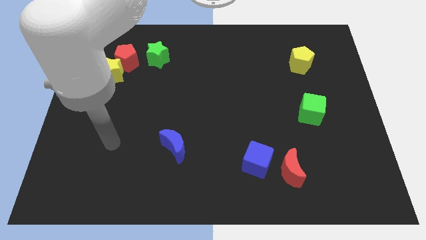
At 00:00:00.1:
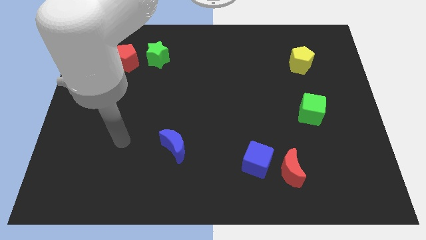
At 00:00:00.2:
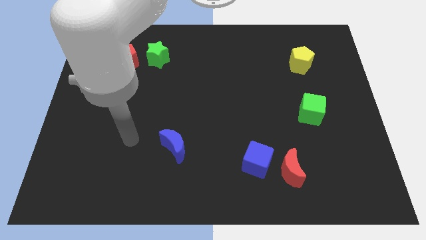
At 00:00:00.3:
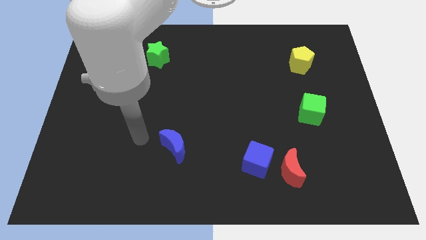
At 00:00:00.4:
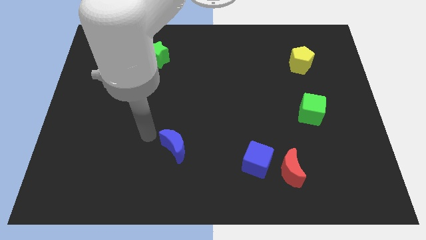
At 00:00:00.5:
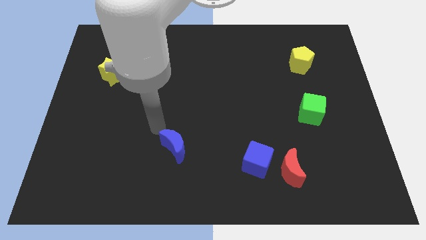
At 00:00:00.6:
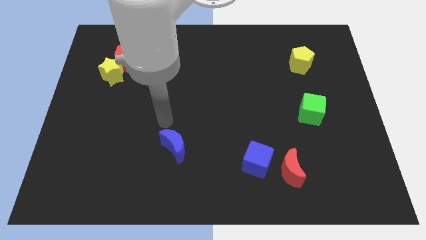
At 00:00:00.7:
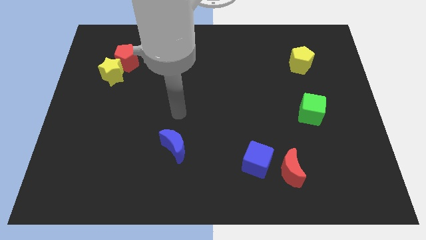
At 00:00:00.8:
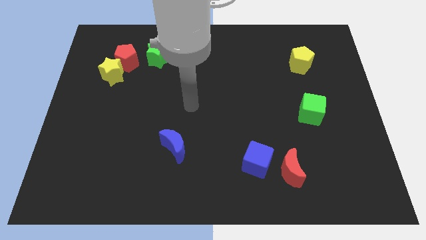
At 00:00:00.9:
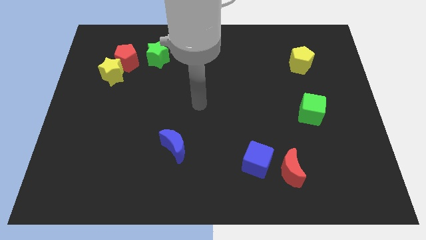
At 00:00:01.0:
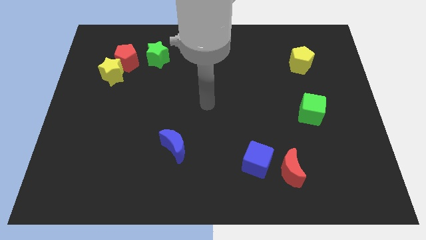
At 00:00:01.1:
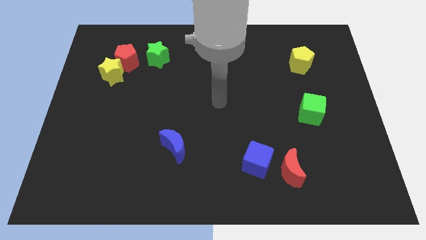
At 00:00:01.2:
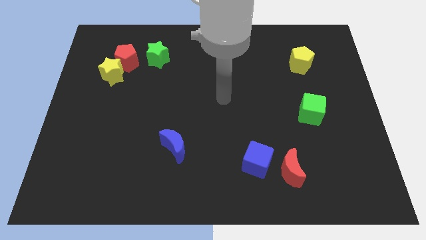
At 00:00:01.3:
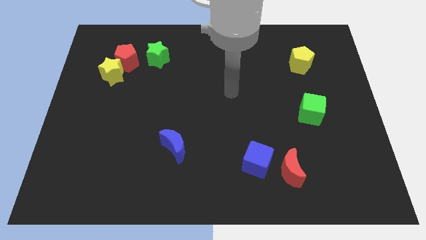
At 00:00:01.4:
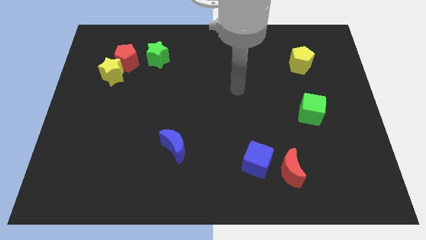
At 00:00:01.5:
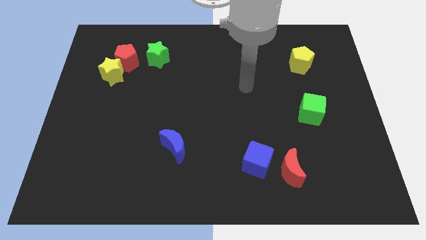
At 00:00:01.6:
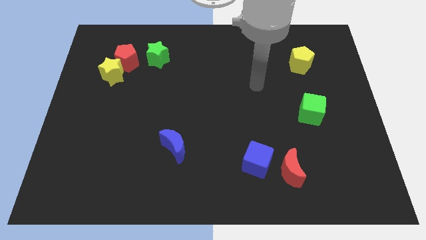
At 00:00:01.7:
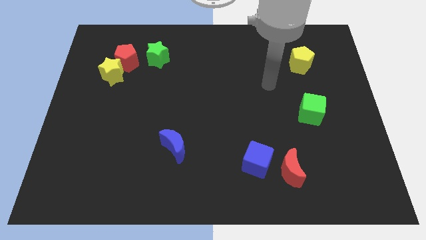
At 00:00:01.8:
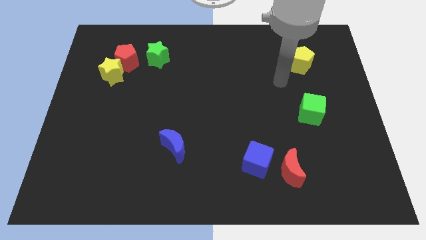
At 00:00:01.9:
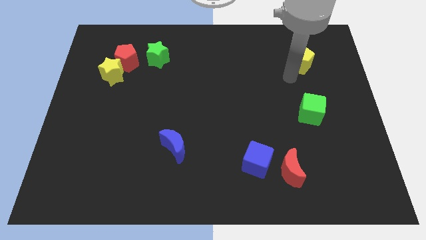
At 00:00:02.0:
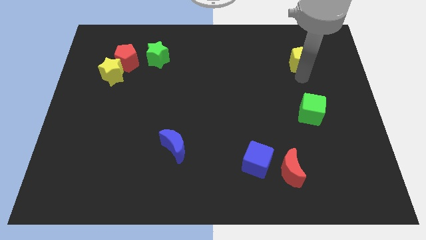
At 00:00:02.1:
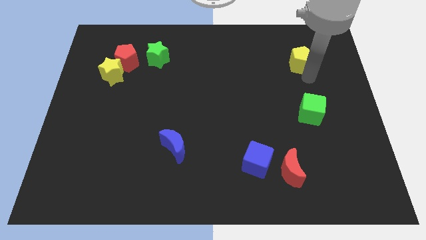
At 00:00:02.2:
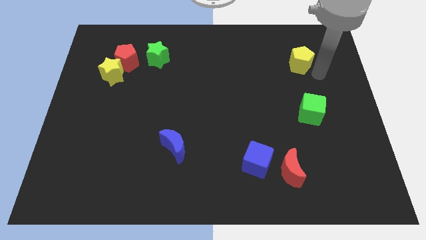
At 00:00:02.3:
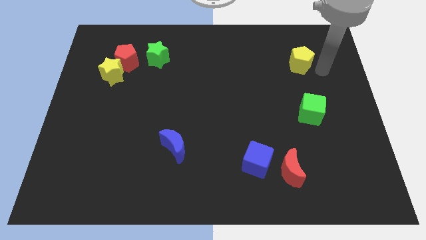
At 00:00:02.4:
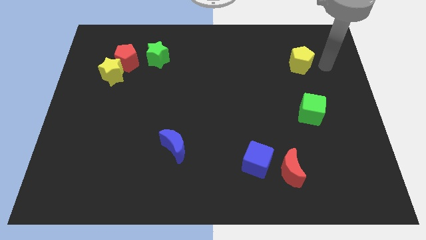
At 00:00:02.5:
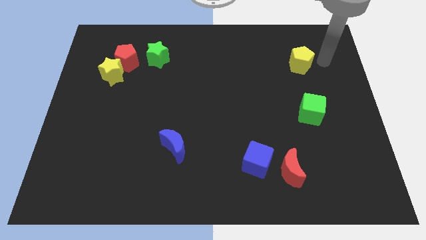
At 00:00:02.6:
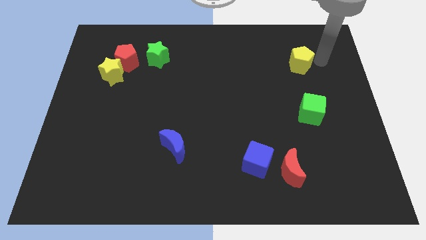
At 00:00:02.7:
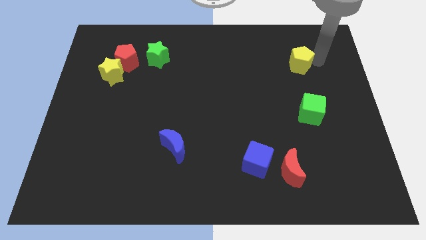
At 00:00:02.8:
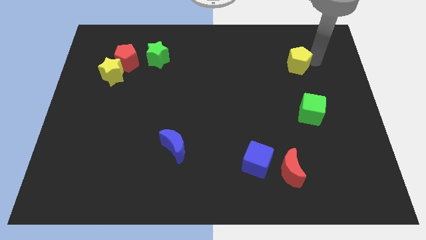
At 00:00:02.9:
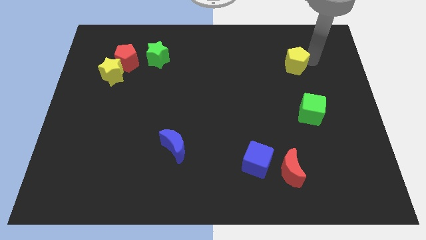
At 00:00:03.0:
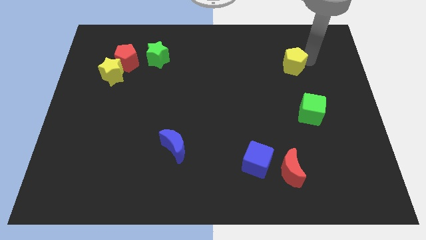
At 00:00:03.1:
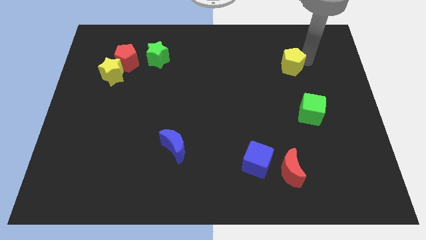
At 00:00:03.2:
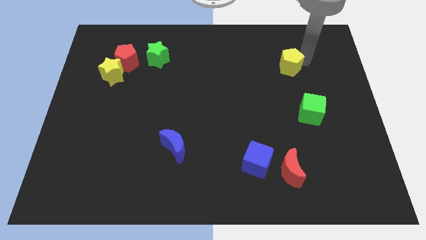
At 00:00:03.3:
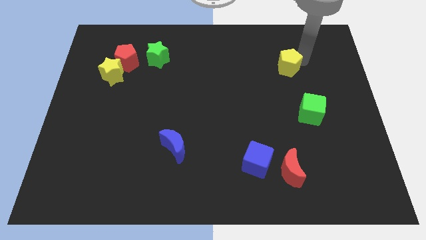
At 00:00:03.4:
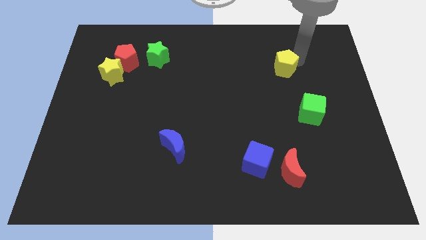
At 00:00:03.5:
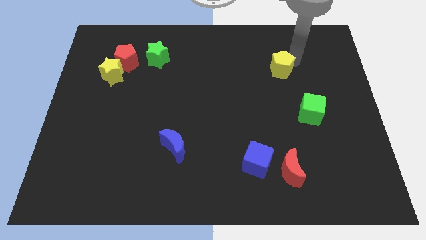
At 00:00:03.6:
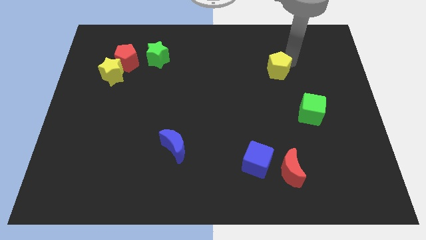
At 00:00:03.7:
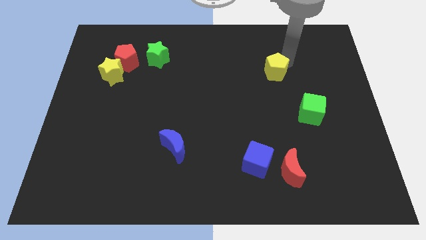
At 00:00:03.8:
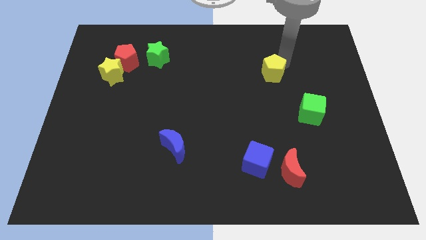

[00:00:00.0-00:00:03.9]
push the yellow pentagon a little bit to the left

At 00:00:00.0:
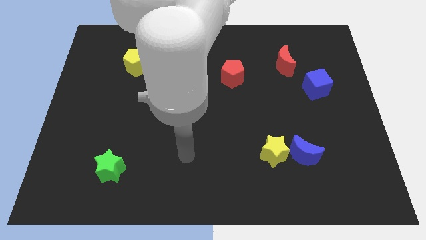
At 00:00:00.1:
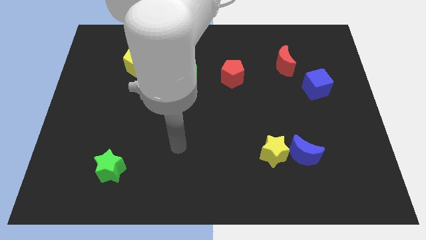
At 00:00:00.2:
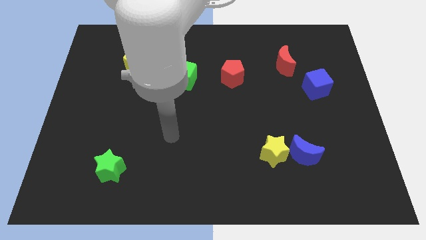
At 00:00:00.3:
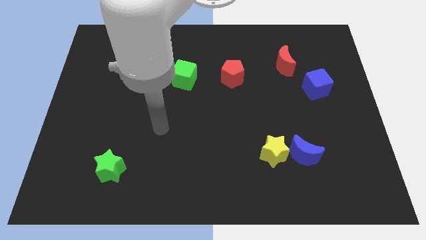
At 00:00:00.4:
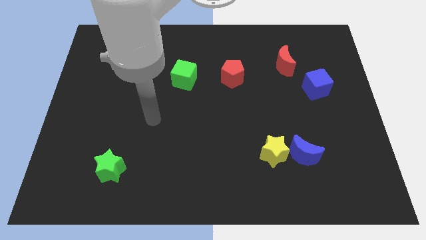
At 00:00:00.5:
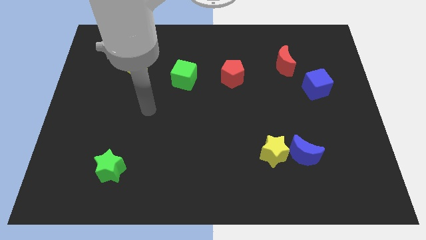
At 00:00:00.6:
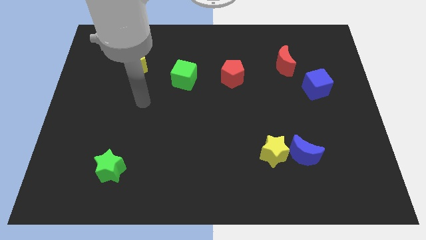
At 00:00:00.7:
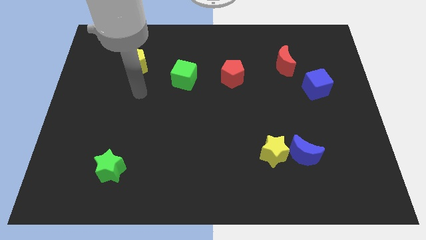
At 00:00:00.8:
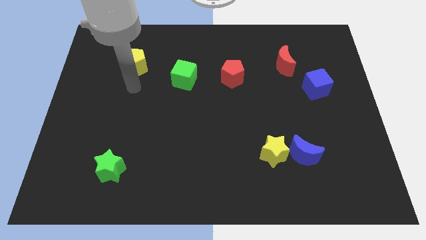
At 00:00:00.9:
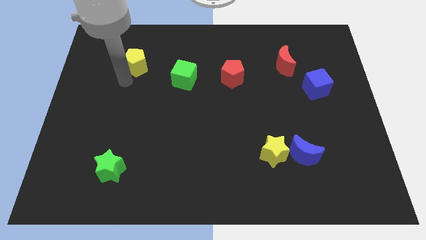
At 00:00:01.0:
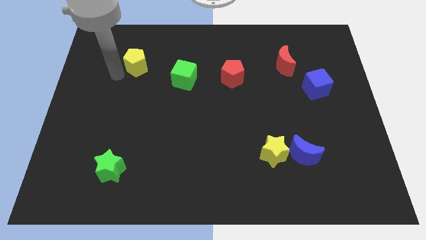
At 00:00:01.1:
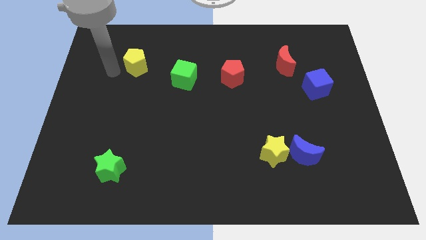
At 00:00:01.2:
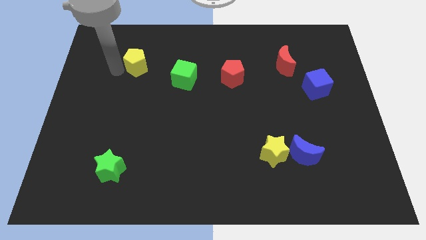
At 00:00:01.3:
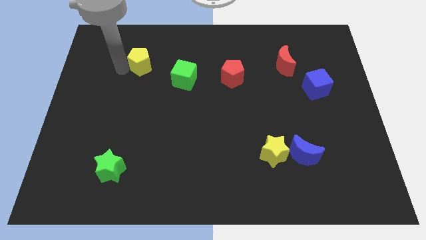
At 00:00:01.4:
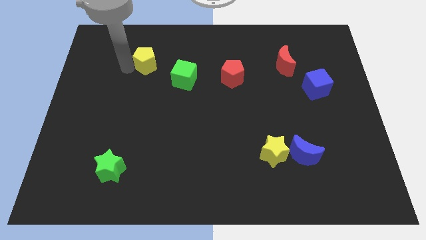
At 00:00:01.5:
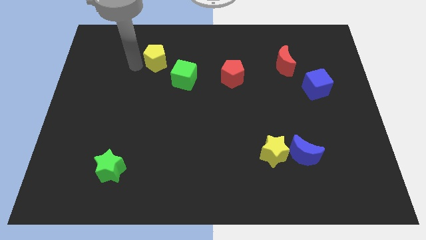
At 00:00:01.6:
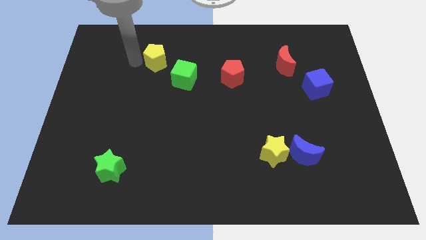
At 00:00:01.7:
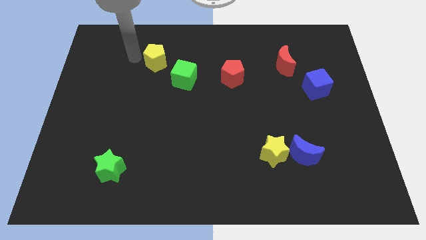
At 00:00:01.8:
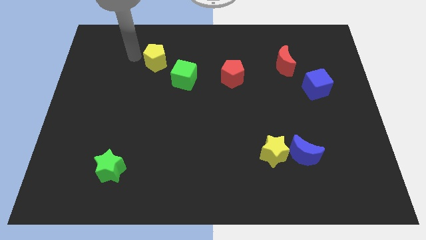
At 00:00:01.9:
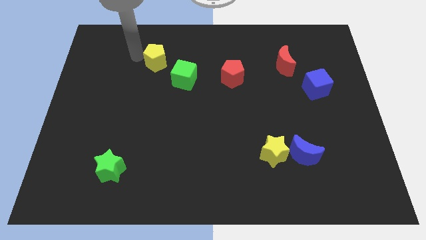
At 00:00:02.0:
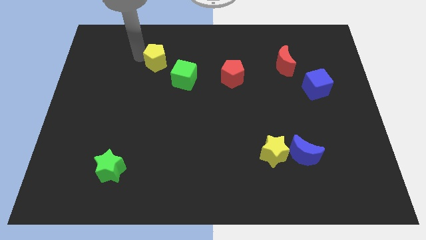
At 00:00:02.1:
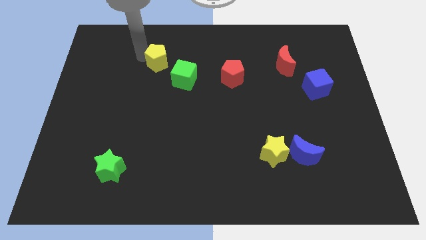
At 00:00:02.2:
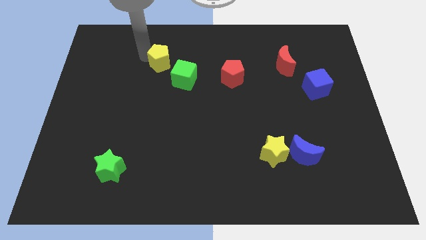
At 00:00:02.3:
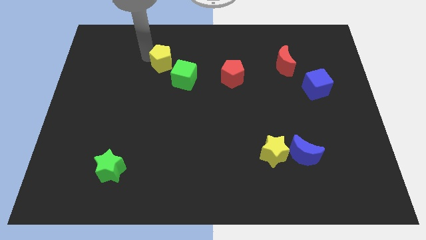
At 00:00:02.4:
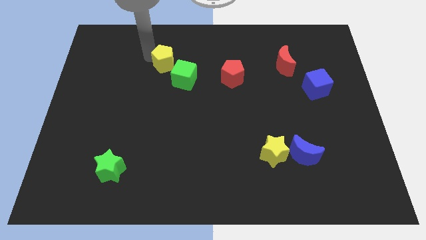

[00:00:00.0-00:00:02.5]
move the yellow pentagon somewhat right

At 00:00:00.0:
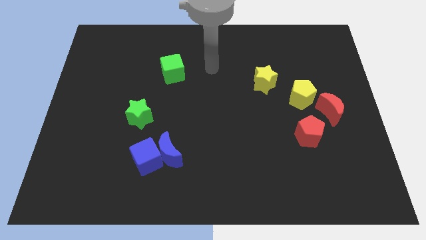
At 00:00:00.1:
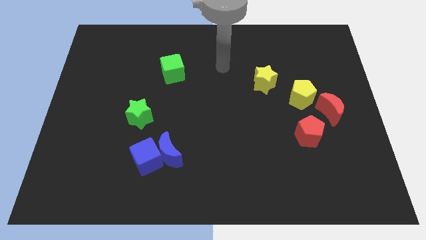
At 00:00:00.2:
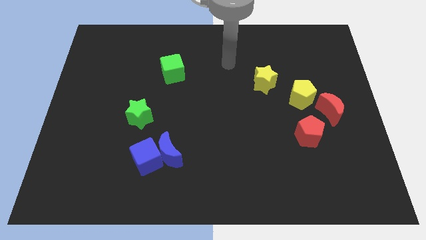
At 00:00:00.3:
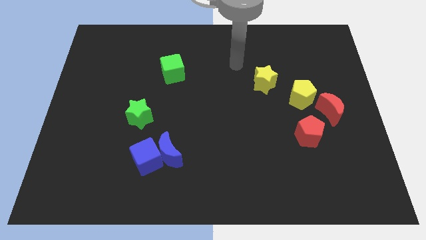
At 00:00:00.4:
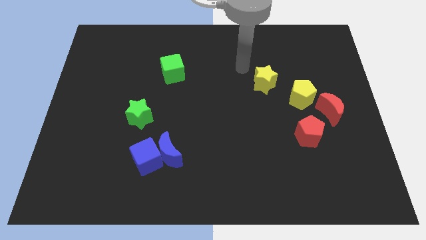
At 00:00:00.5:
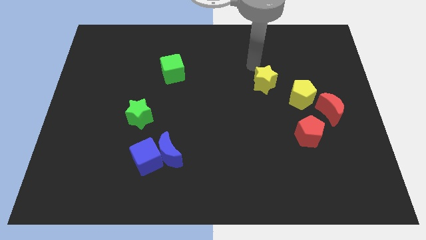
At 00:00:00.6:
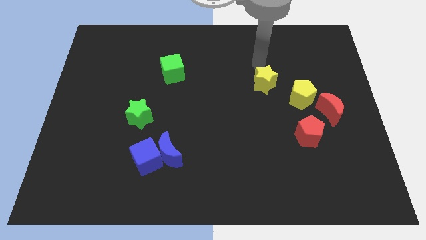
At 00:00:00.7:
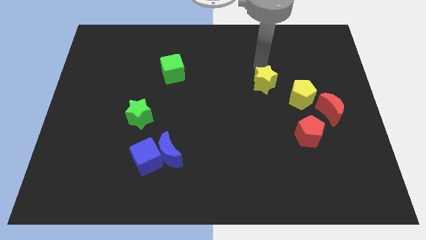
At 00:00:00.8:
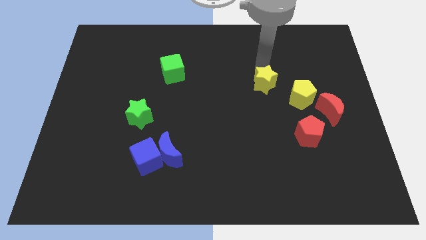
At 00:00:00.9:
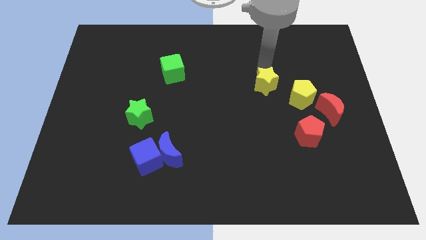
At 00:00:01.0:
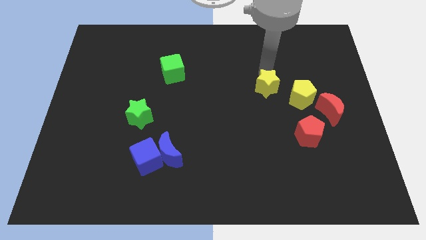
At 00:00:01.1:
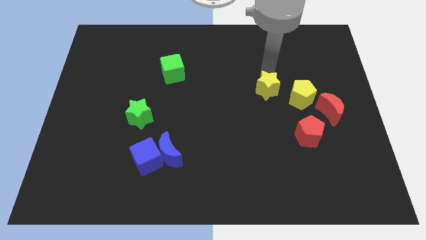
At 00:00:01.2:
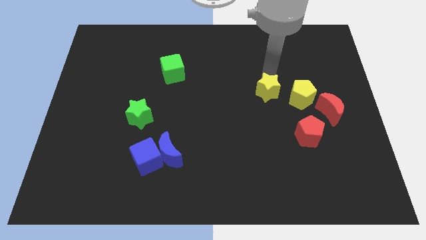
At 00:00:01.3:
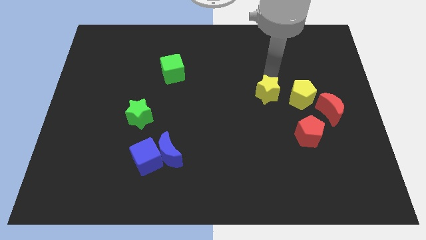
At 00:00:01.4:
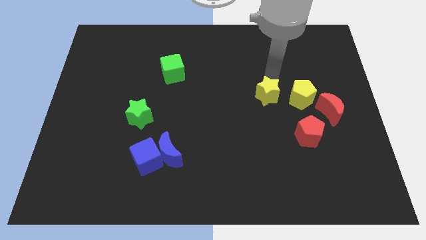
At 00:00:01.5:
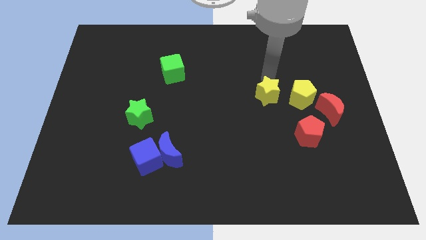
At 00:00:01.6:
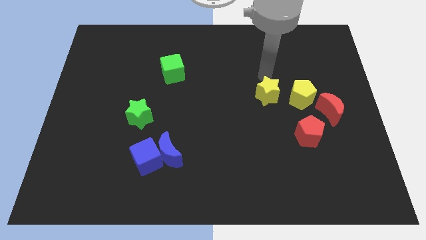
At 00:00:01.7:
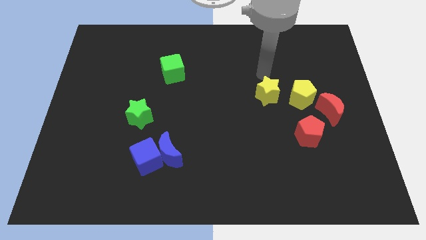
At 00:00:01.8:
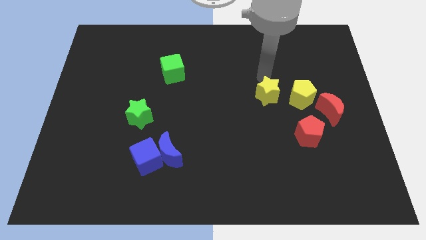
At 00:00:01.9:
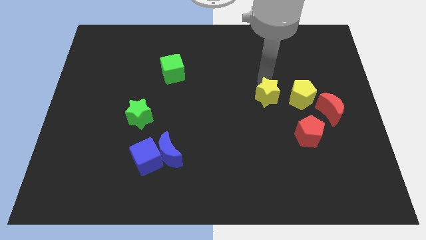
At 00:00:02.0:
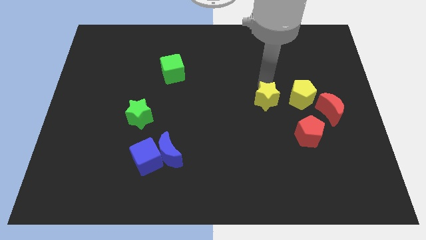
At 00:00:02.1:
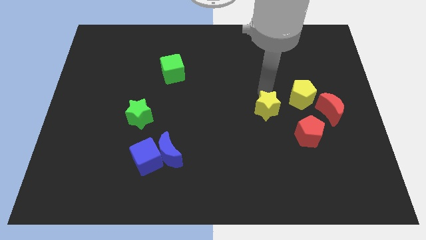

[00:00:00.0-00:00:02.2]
slightly push the yellow star down
